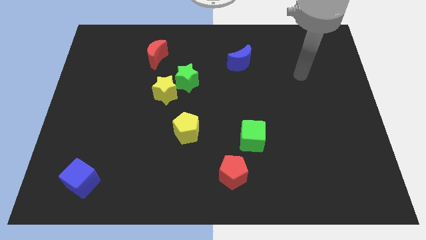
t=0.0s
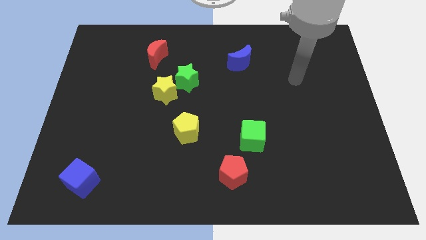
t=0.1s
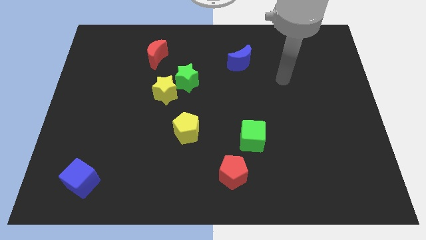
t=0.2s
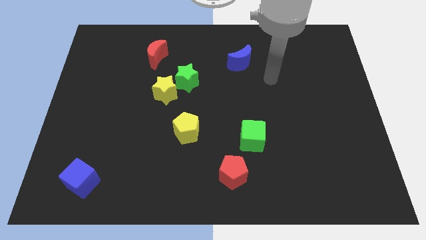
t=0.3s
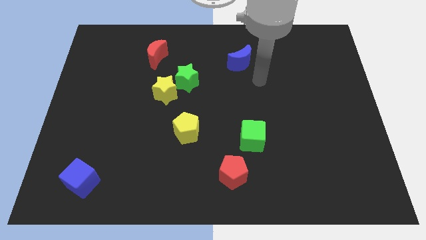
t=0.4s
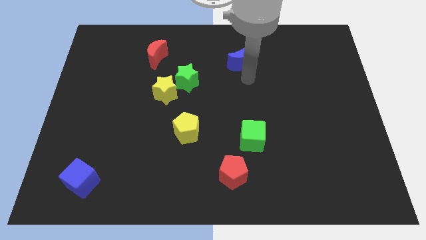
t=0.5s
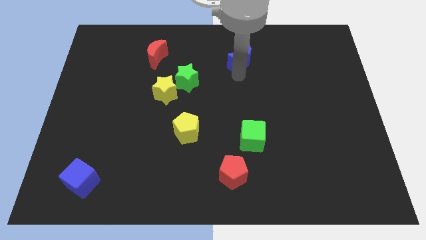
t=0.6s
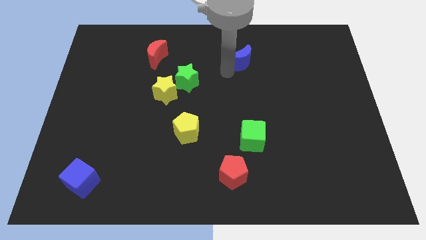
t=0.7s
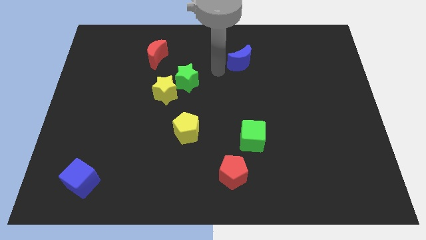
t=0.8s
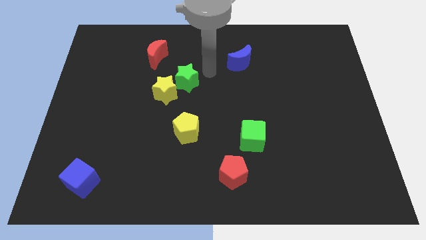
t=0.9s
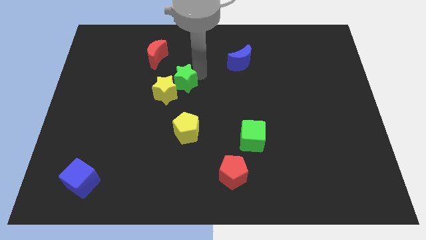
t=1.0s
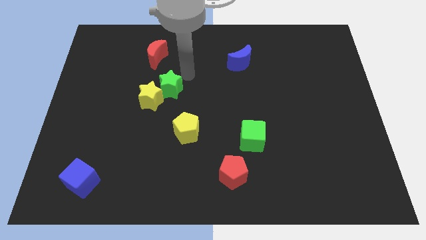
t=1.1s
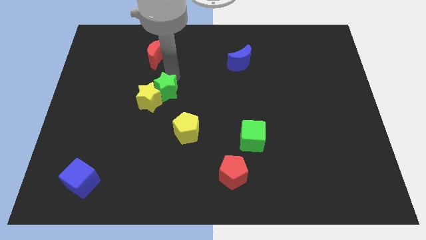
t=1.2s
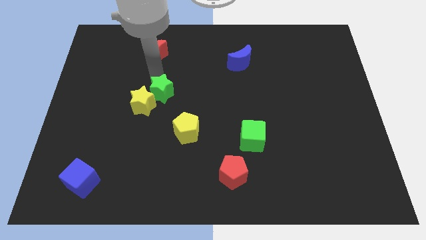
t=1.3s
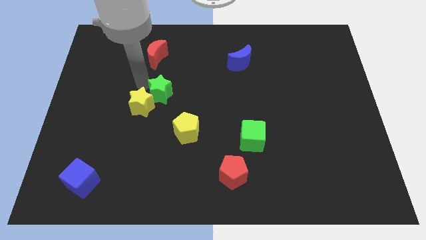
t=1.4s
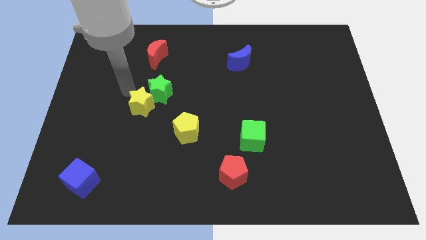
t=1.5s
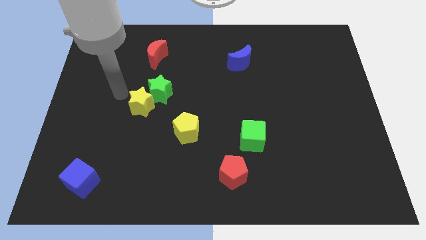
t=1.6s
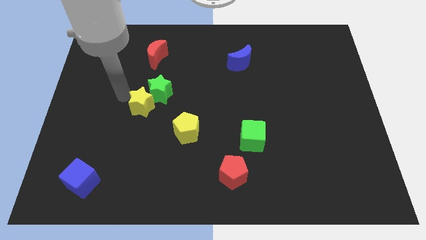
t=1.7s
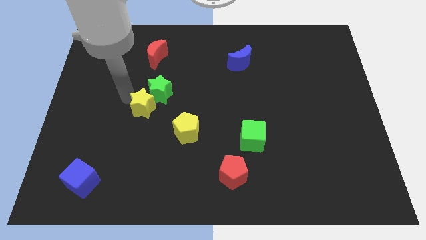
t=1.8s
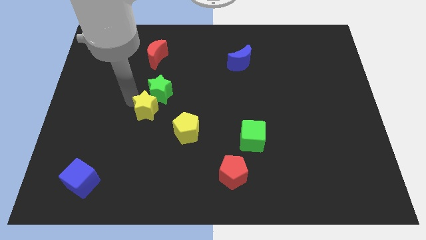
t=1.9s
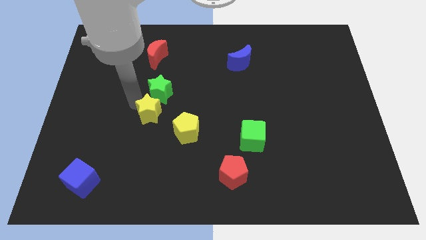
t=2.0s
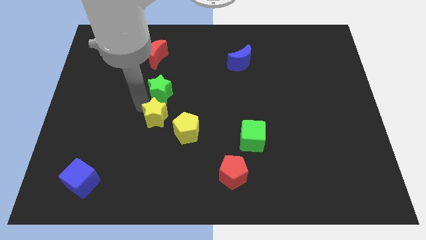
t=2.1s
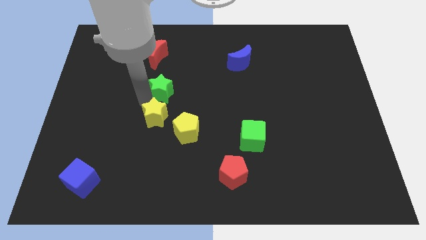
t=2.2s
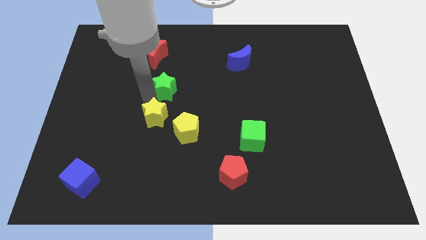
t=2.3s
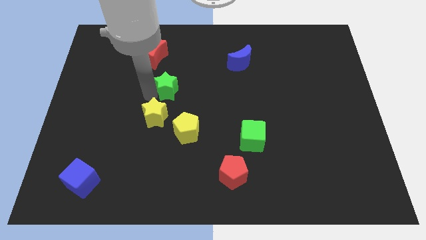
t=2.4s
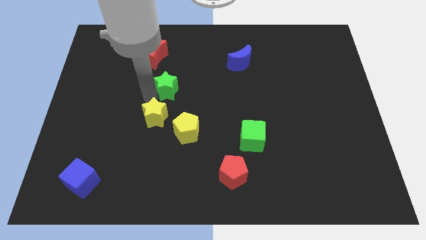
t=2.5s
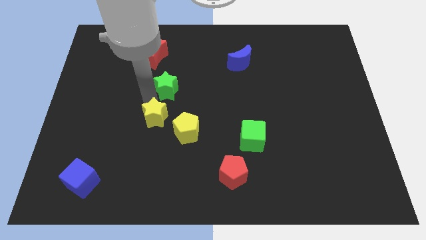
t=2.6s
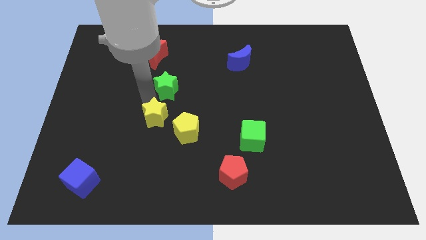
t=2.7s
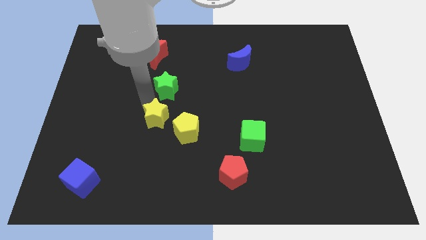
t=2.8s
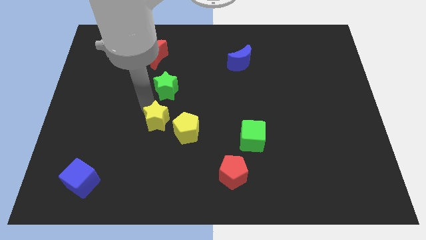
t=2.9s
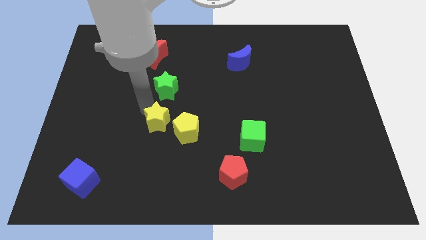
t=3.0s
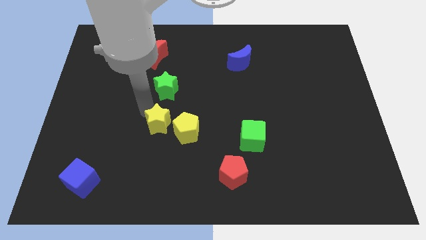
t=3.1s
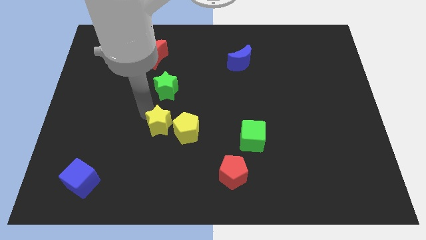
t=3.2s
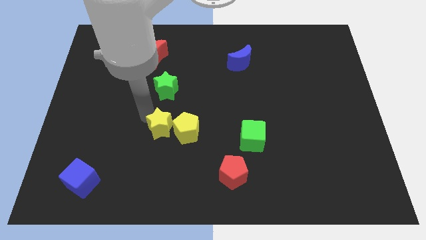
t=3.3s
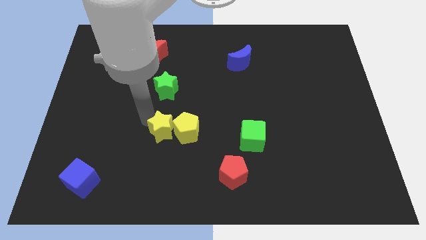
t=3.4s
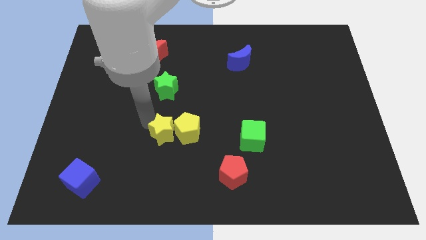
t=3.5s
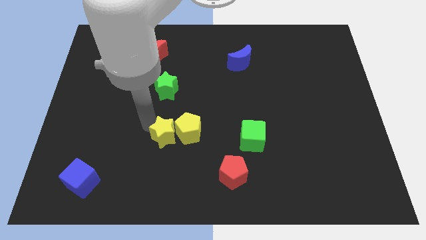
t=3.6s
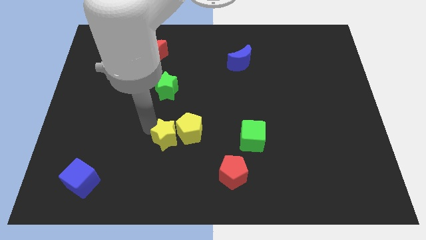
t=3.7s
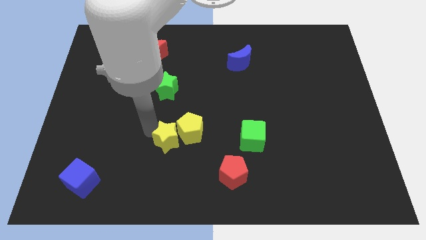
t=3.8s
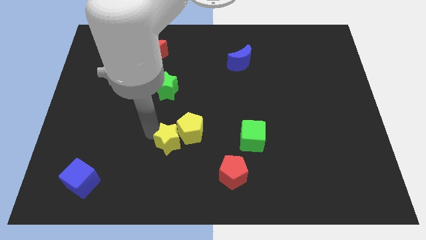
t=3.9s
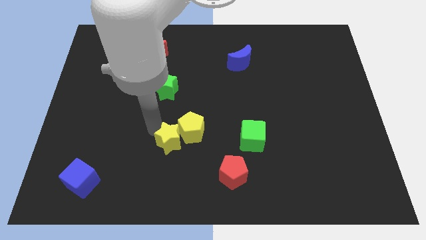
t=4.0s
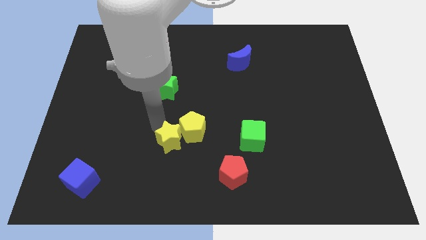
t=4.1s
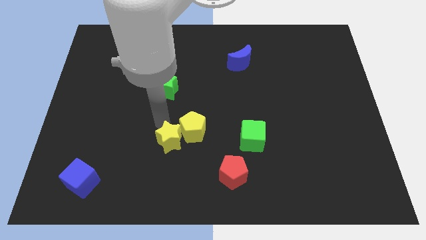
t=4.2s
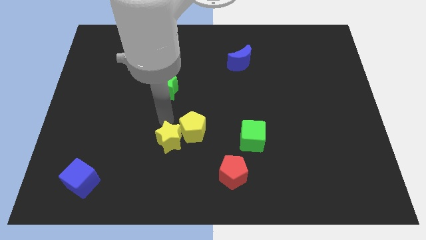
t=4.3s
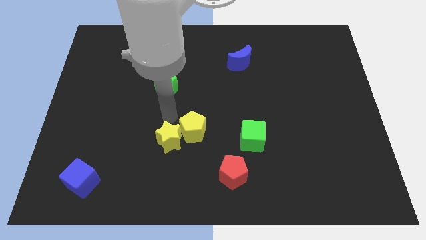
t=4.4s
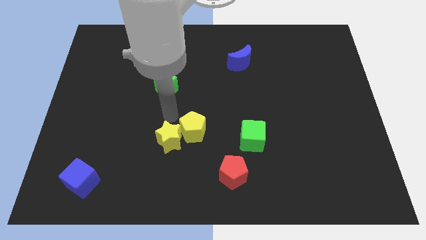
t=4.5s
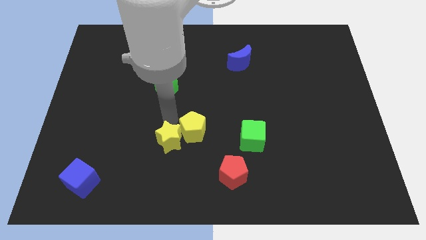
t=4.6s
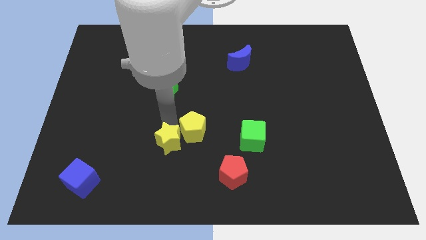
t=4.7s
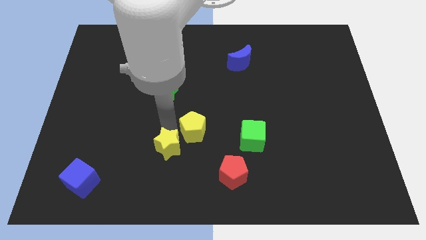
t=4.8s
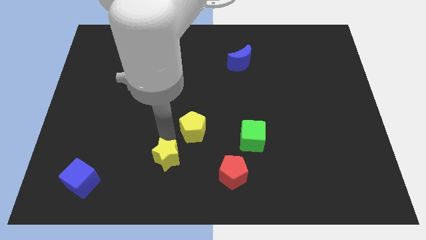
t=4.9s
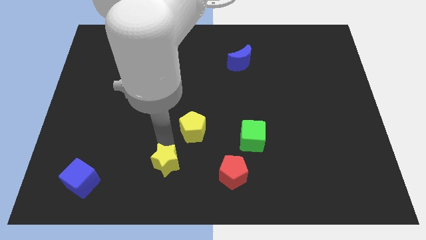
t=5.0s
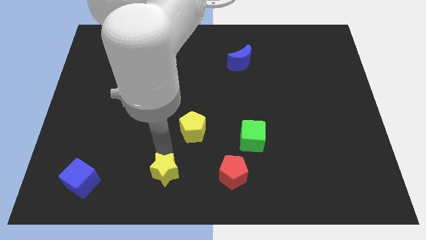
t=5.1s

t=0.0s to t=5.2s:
put the yellow star to the bottom

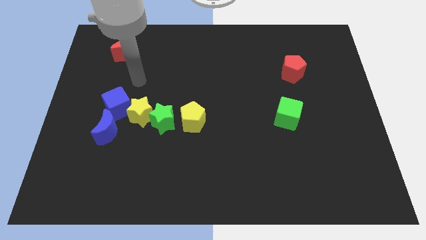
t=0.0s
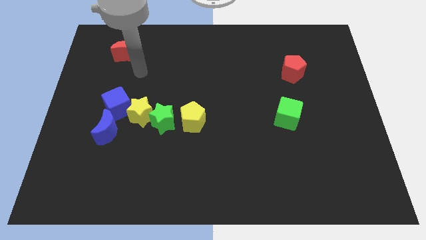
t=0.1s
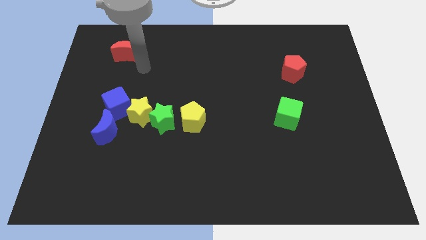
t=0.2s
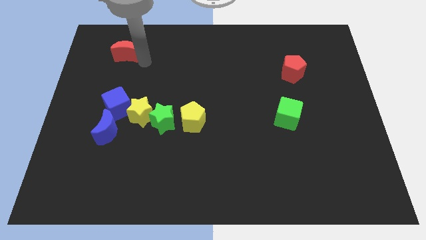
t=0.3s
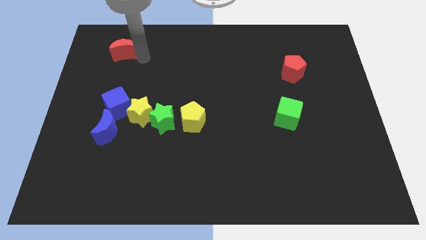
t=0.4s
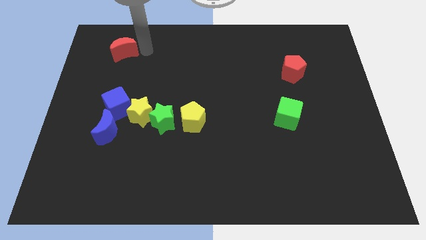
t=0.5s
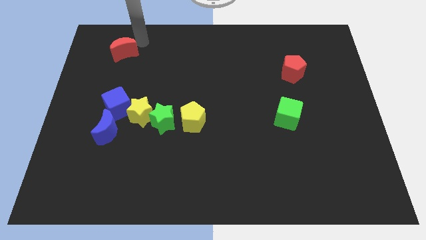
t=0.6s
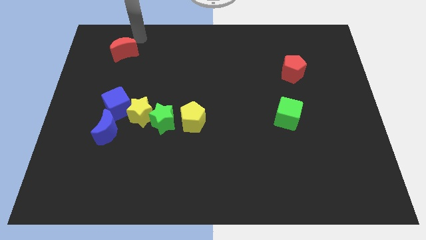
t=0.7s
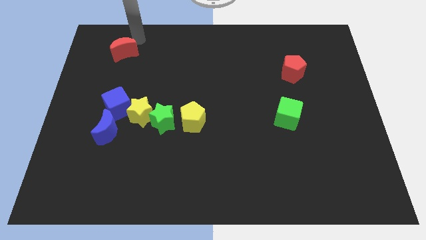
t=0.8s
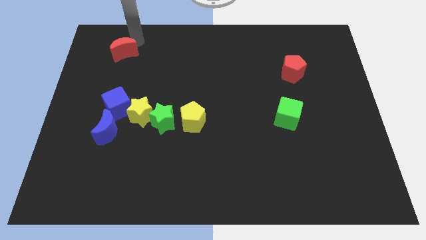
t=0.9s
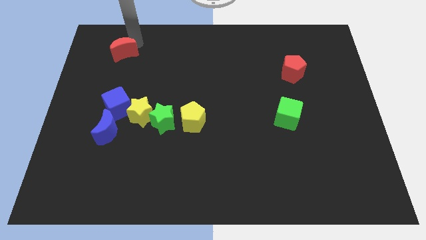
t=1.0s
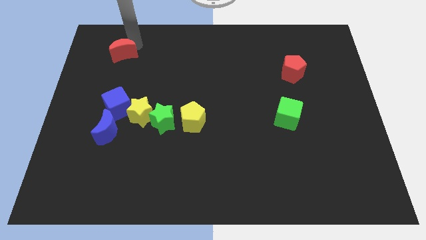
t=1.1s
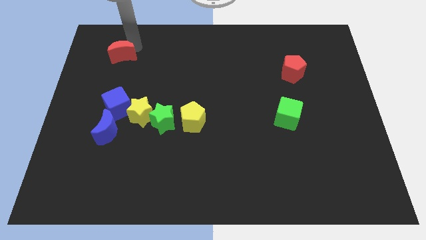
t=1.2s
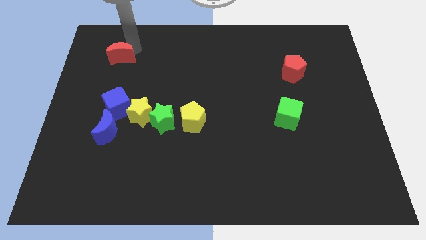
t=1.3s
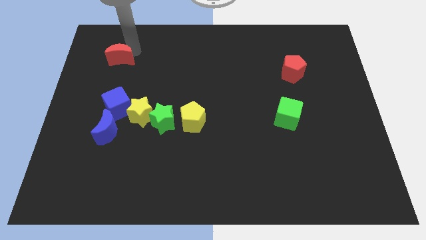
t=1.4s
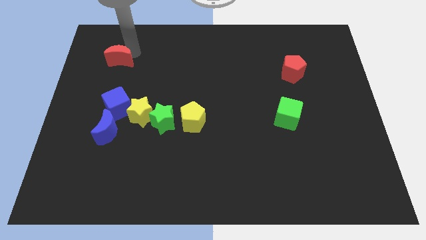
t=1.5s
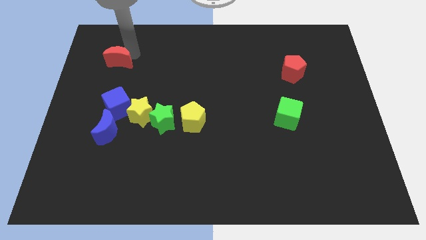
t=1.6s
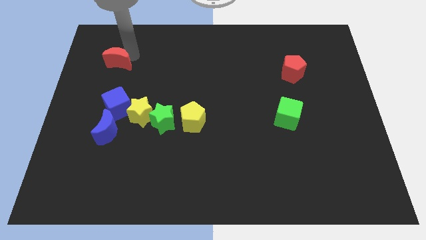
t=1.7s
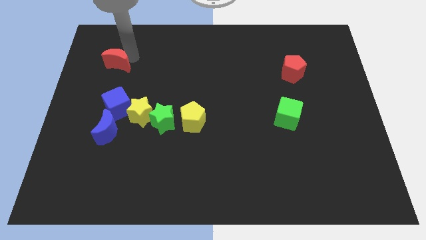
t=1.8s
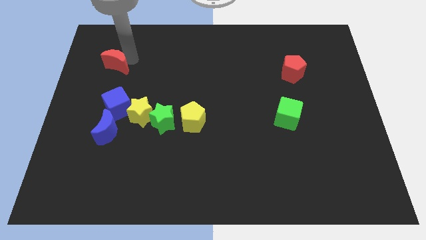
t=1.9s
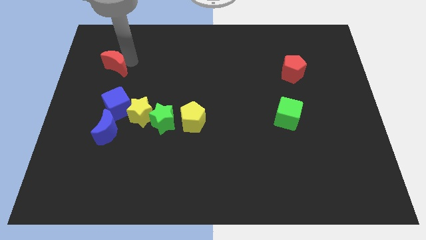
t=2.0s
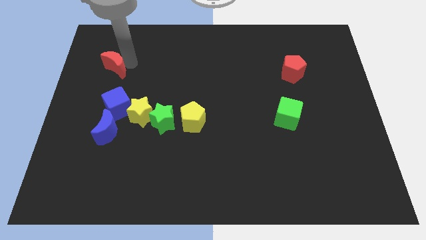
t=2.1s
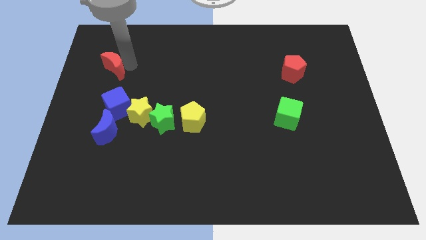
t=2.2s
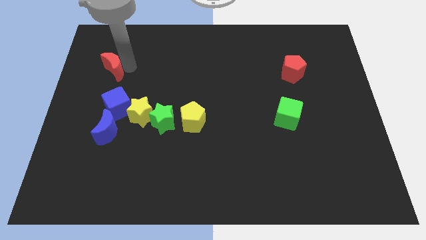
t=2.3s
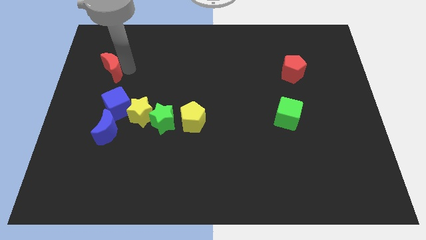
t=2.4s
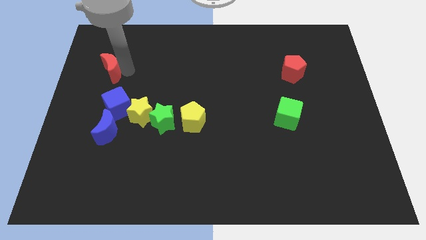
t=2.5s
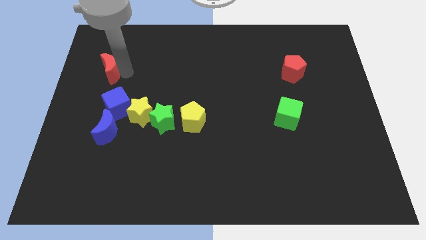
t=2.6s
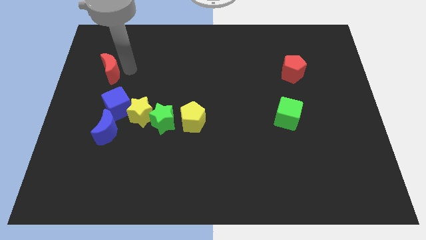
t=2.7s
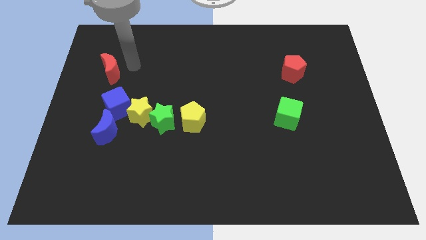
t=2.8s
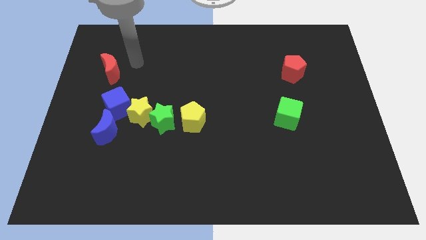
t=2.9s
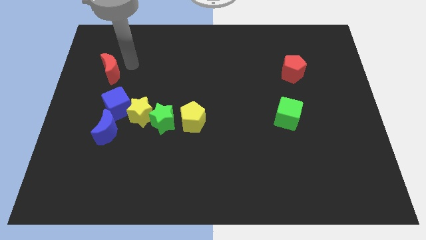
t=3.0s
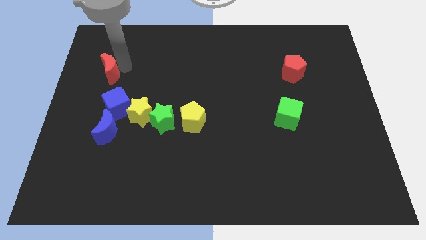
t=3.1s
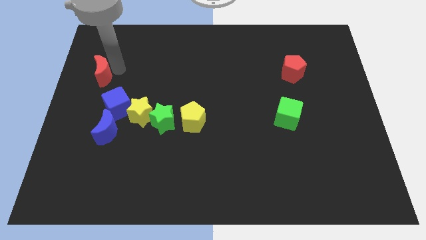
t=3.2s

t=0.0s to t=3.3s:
push the red moon to the left side
